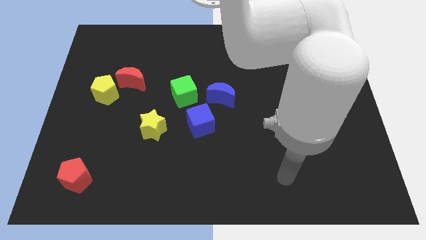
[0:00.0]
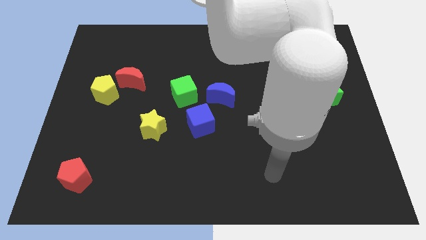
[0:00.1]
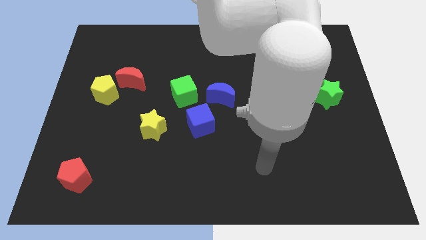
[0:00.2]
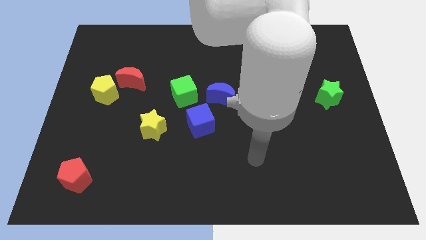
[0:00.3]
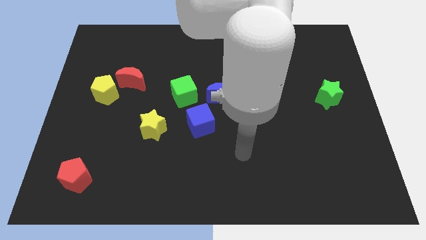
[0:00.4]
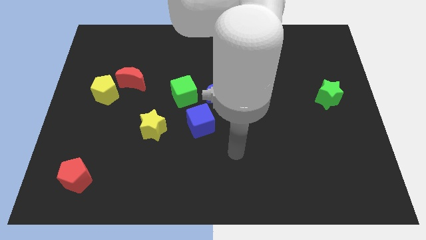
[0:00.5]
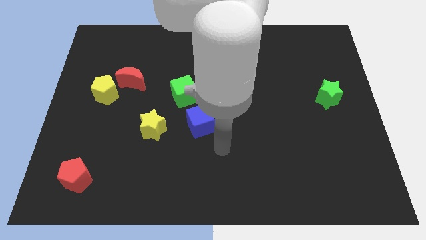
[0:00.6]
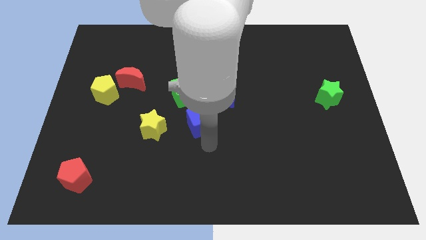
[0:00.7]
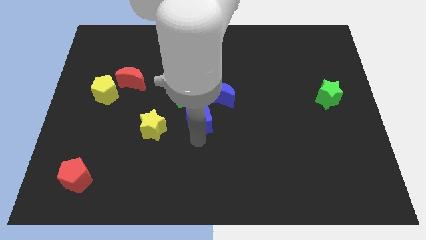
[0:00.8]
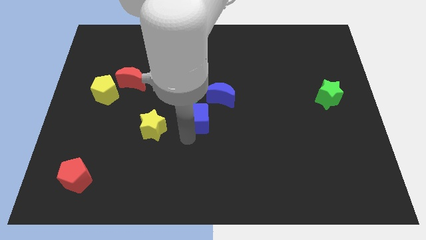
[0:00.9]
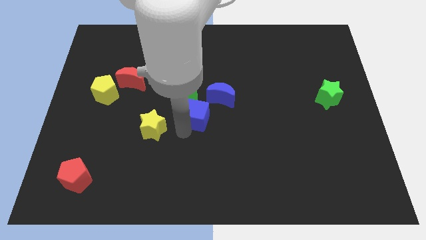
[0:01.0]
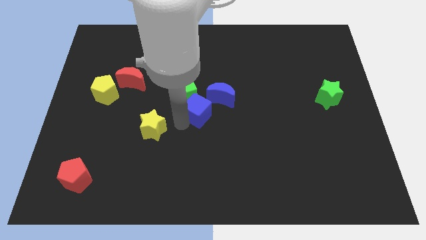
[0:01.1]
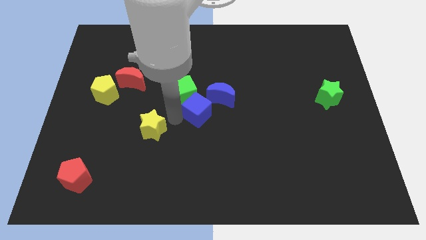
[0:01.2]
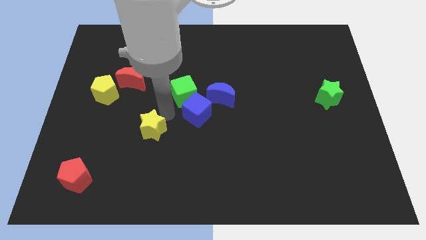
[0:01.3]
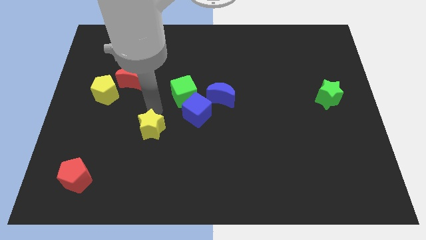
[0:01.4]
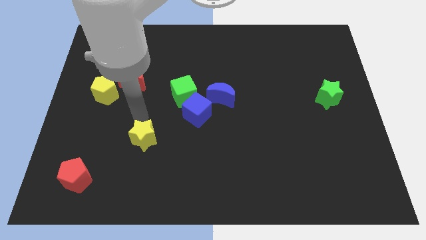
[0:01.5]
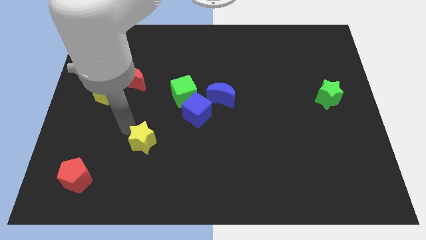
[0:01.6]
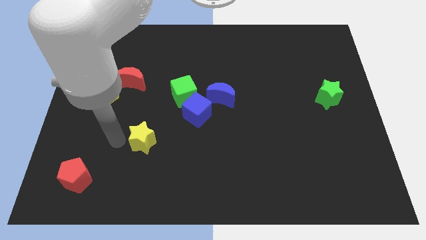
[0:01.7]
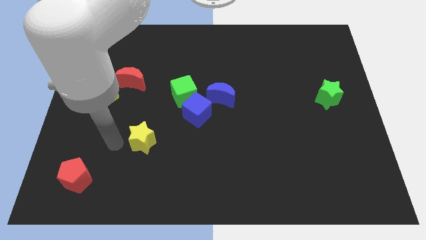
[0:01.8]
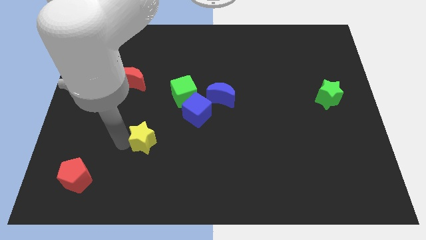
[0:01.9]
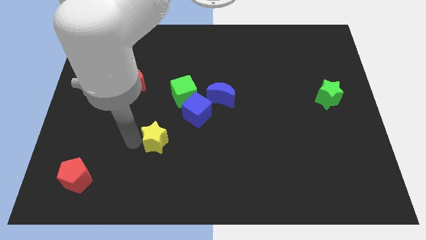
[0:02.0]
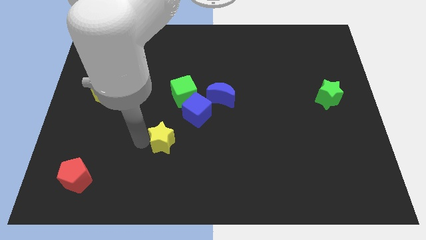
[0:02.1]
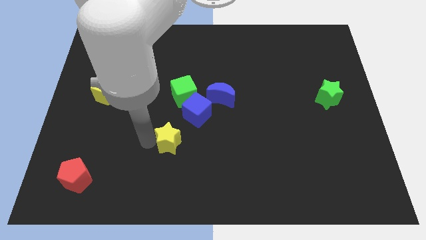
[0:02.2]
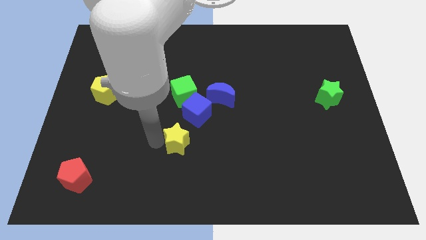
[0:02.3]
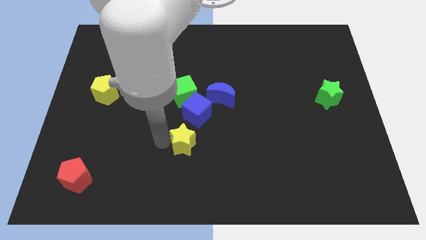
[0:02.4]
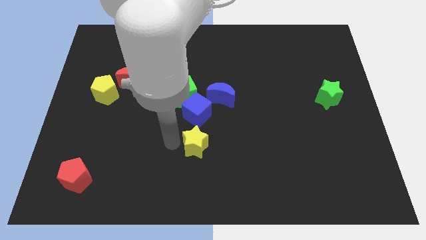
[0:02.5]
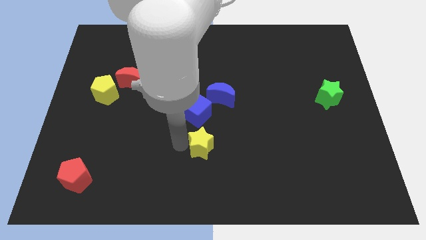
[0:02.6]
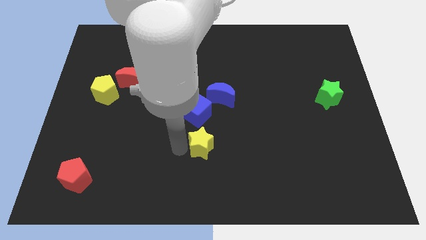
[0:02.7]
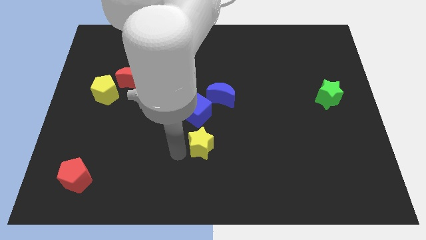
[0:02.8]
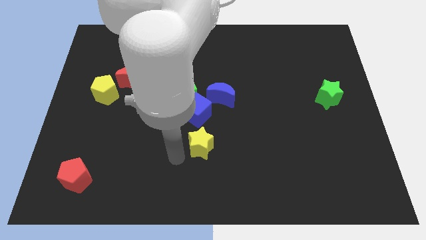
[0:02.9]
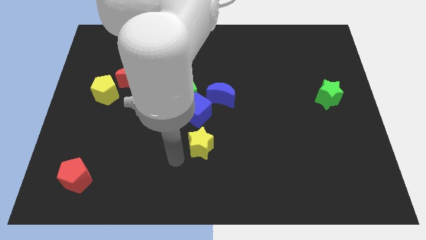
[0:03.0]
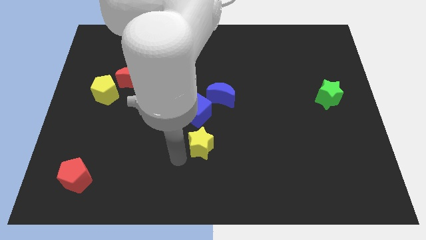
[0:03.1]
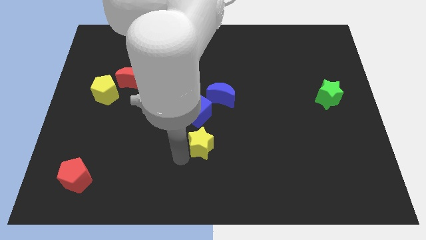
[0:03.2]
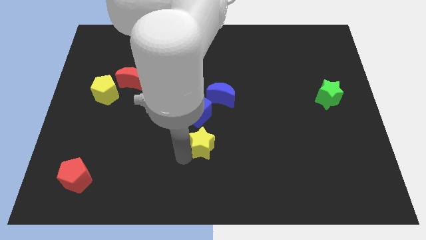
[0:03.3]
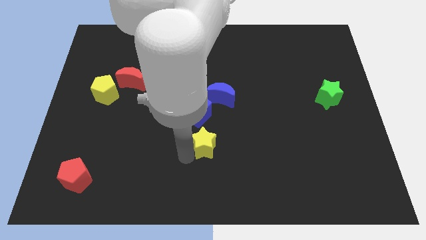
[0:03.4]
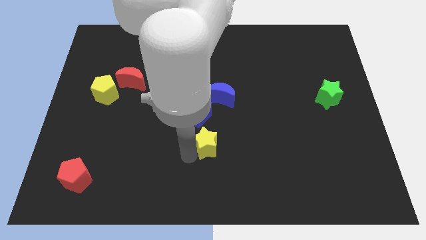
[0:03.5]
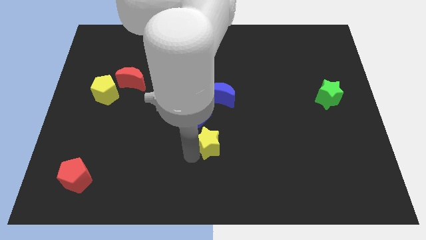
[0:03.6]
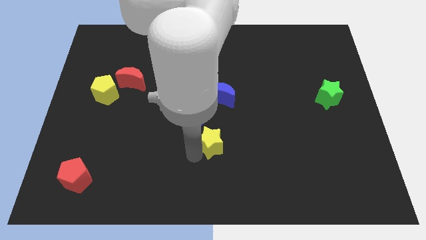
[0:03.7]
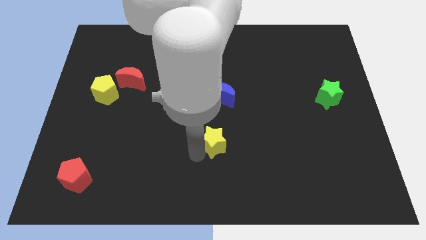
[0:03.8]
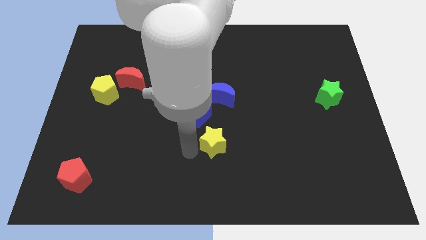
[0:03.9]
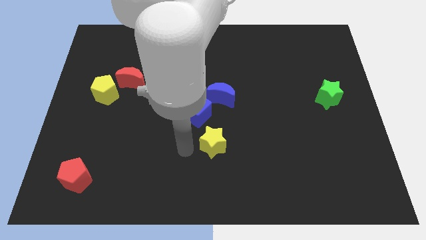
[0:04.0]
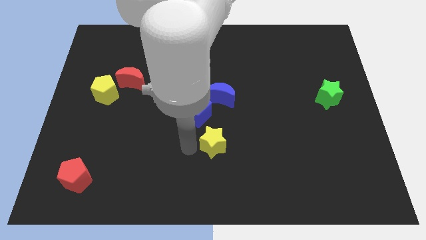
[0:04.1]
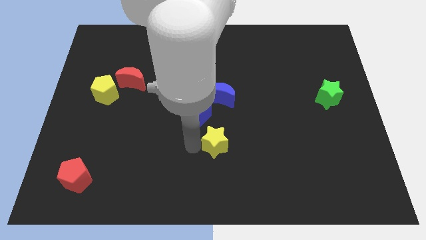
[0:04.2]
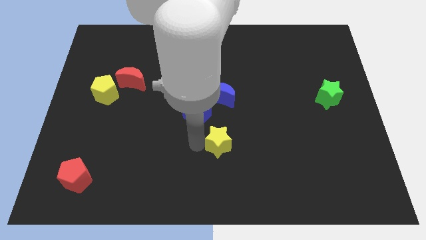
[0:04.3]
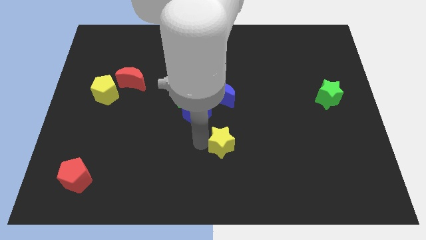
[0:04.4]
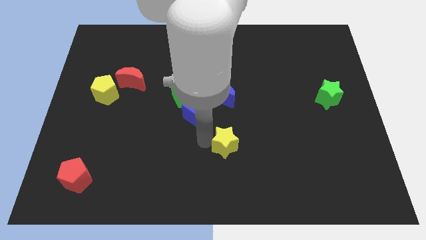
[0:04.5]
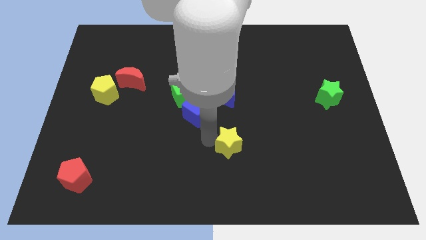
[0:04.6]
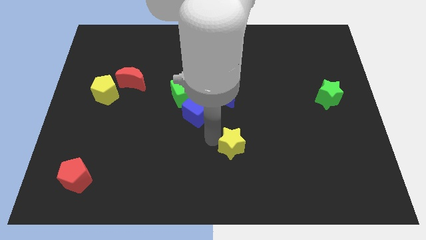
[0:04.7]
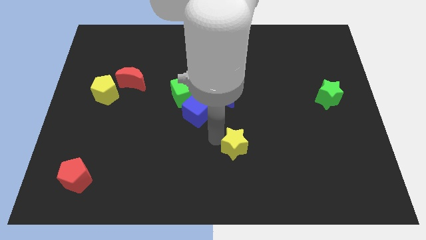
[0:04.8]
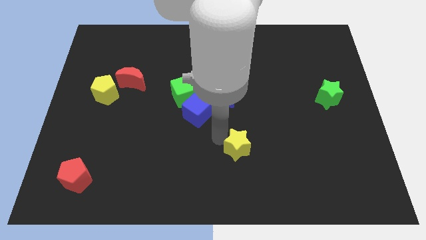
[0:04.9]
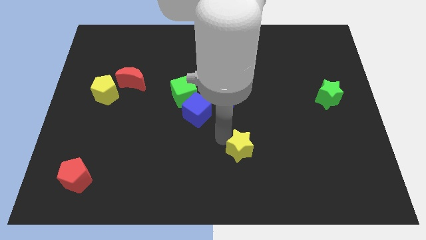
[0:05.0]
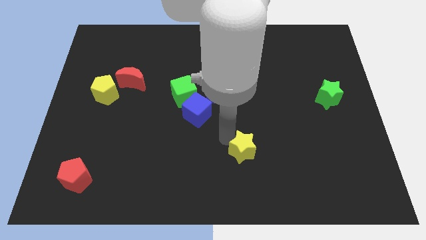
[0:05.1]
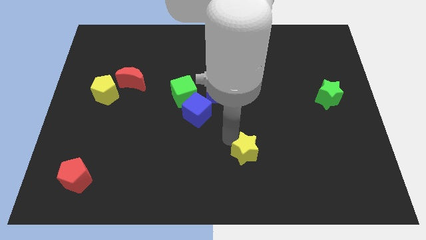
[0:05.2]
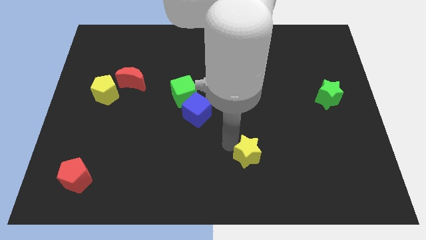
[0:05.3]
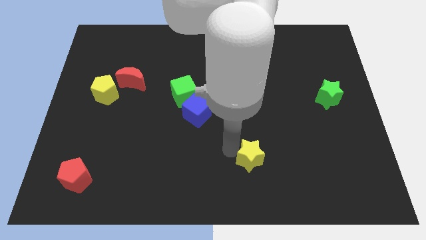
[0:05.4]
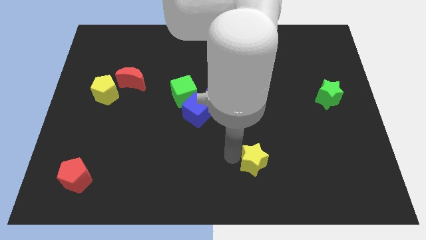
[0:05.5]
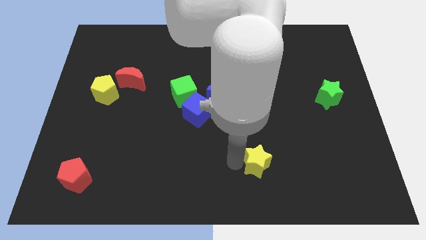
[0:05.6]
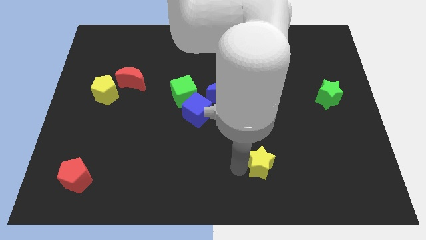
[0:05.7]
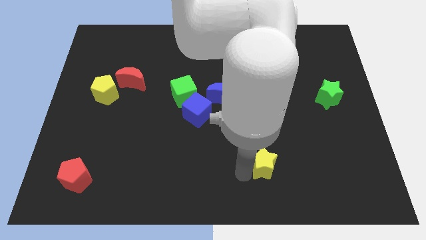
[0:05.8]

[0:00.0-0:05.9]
move the yellow star to the right

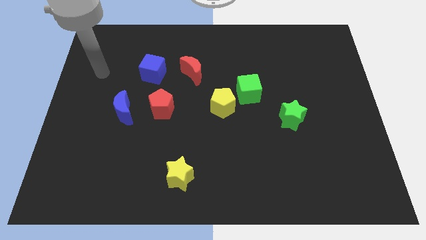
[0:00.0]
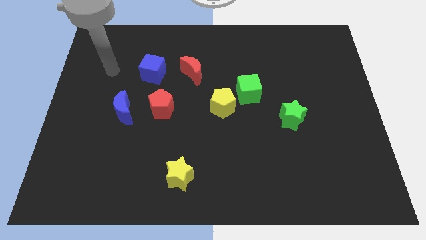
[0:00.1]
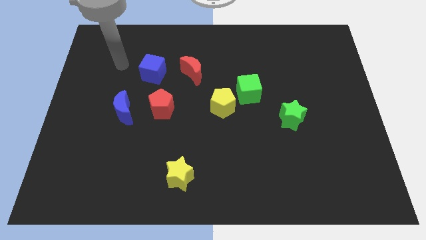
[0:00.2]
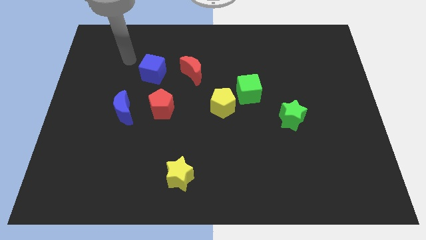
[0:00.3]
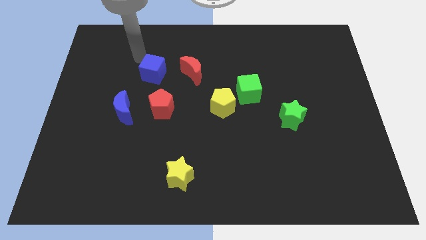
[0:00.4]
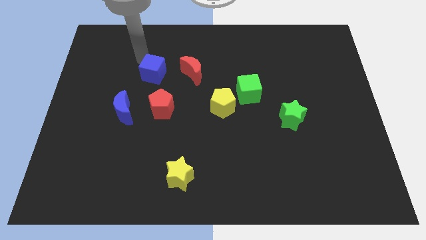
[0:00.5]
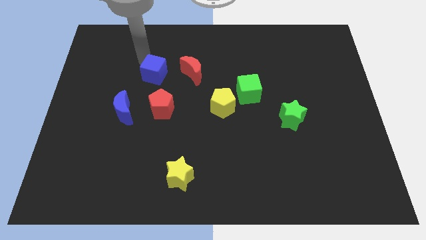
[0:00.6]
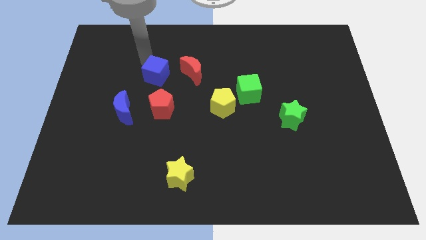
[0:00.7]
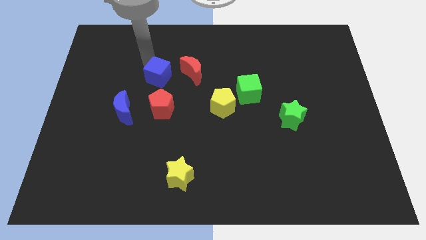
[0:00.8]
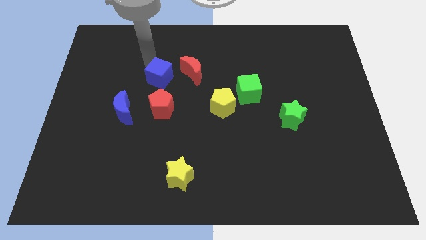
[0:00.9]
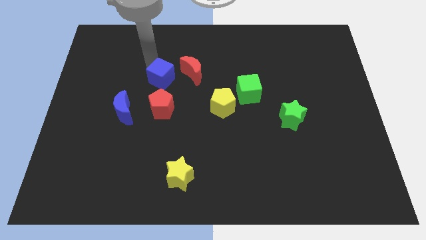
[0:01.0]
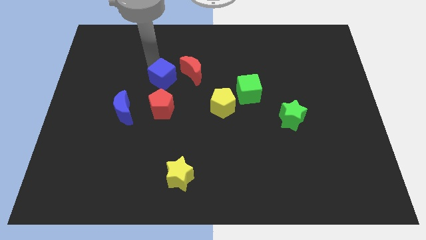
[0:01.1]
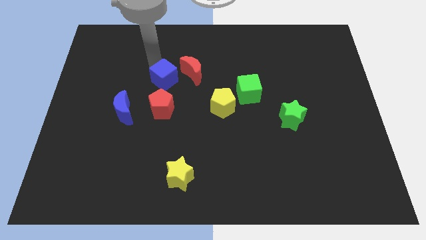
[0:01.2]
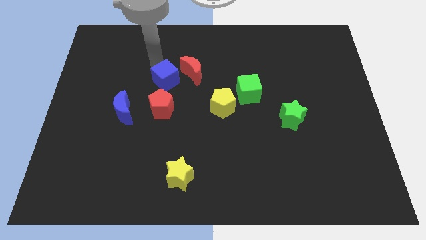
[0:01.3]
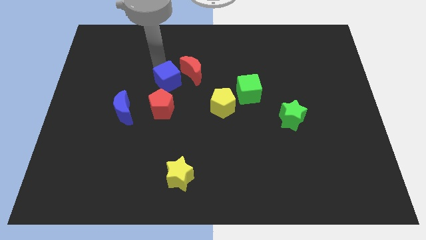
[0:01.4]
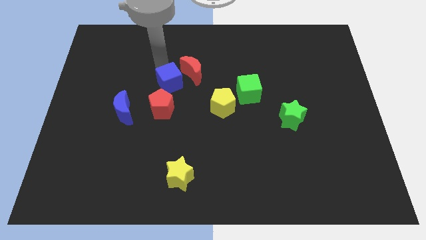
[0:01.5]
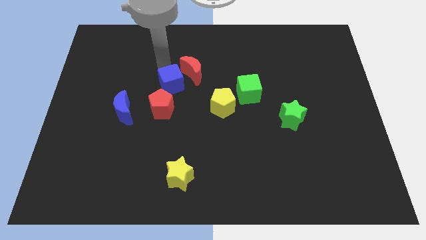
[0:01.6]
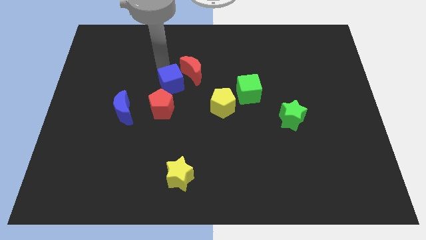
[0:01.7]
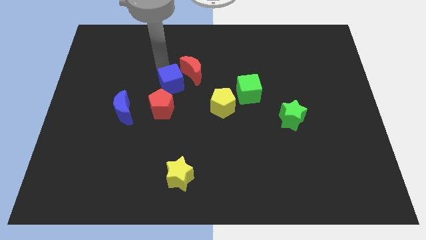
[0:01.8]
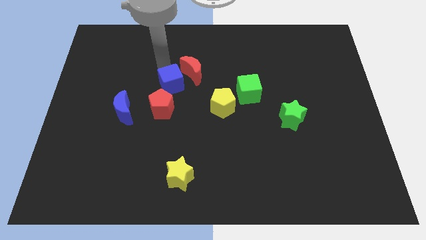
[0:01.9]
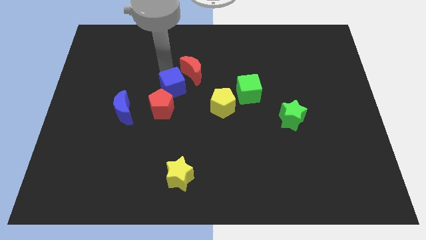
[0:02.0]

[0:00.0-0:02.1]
slightly push the blue cube downwards and to the right diagonally

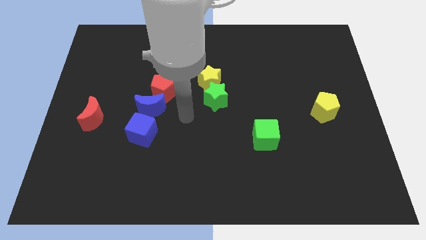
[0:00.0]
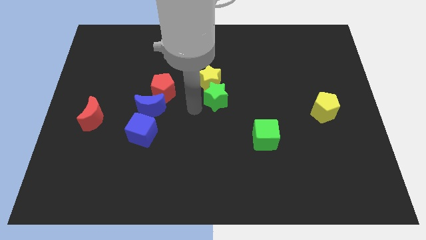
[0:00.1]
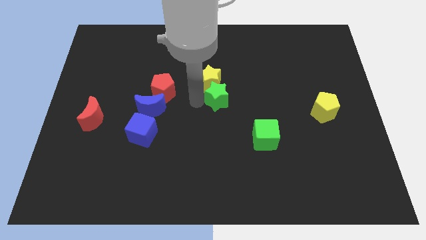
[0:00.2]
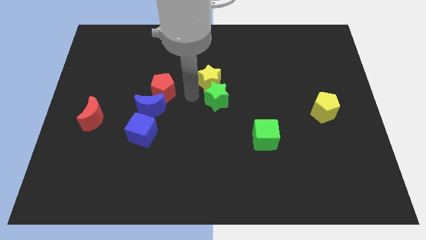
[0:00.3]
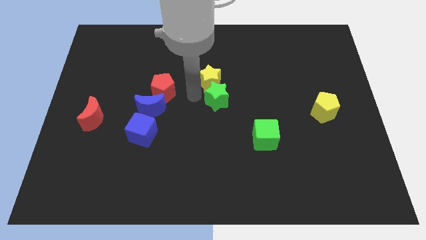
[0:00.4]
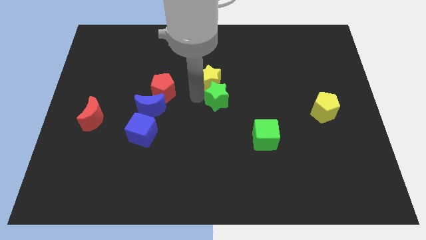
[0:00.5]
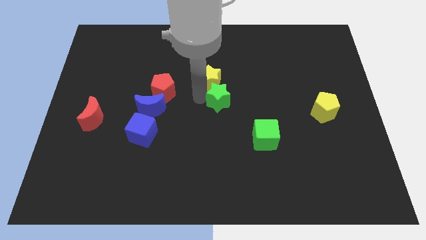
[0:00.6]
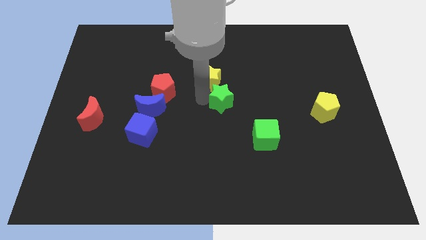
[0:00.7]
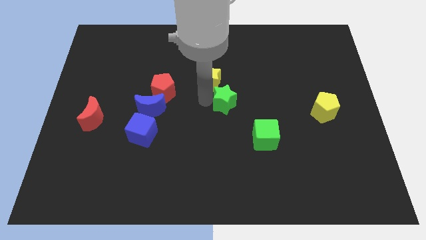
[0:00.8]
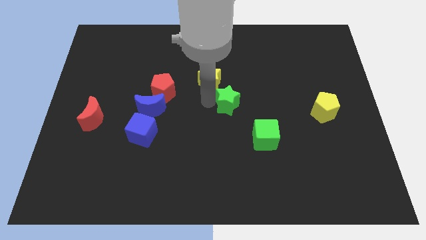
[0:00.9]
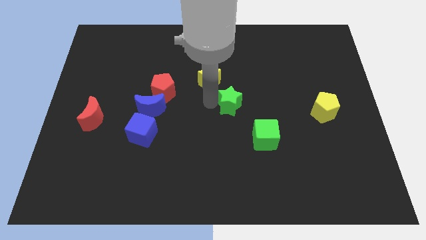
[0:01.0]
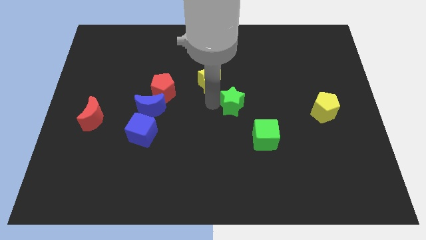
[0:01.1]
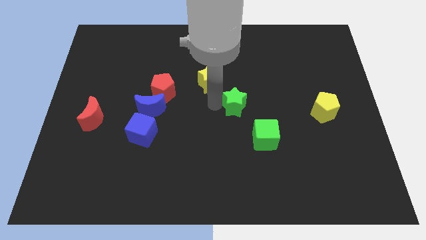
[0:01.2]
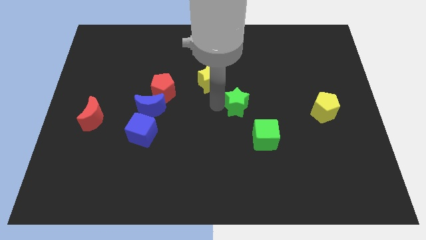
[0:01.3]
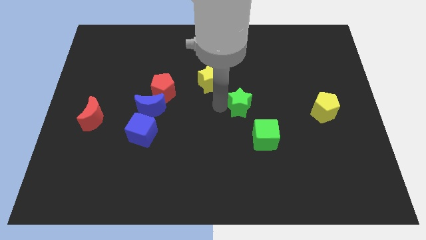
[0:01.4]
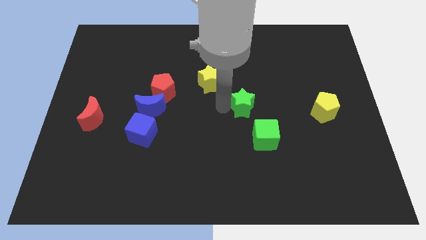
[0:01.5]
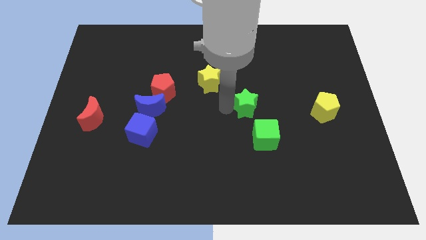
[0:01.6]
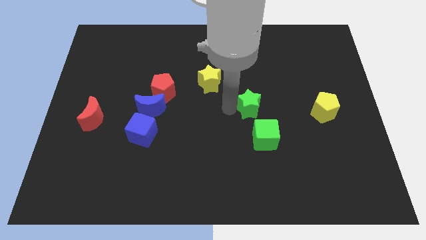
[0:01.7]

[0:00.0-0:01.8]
slide the green star to the right slightly
